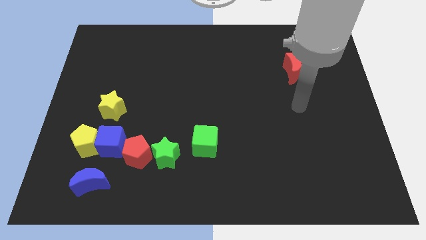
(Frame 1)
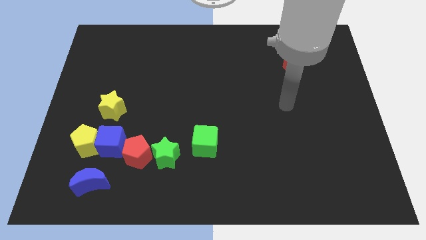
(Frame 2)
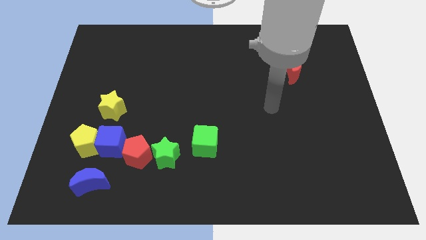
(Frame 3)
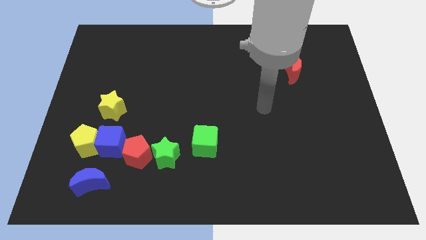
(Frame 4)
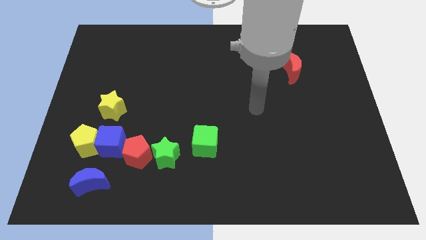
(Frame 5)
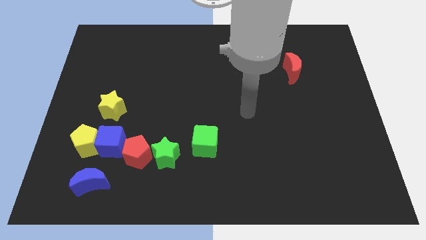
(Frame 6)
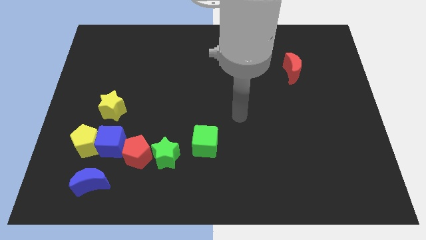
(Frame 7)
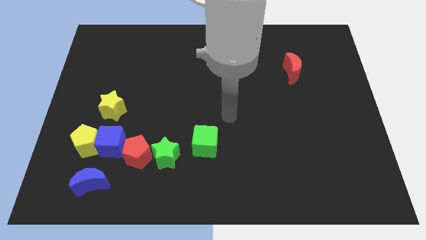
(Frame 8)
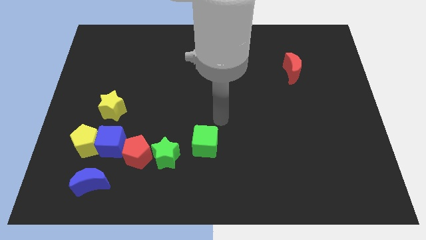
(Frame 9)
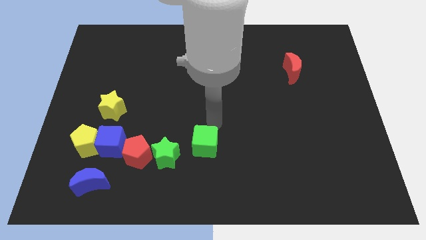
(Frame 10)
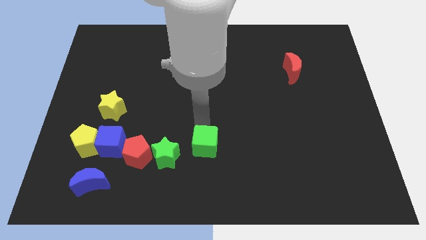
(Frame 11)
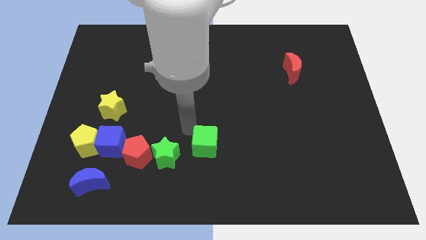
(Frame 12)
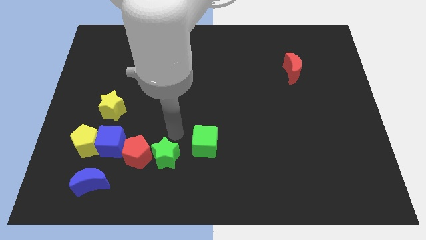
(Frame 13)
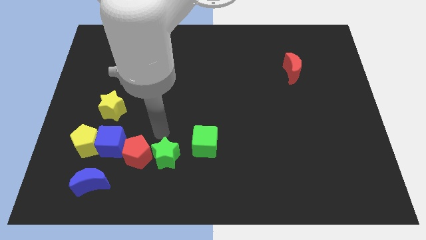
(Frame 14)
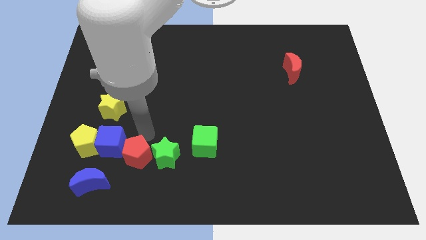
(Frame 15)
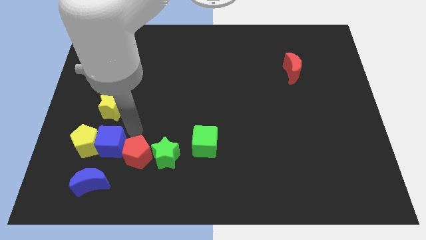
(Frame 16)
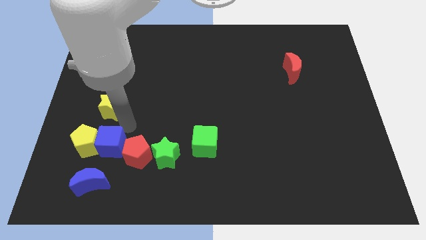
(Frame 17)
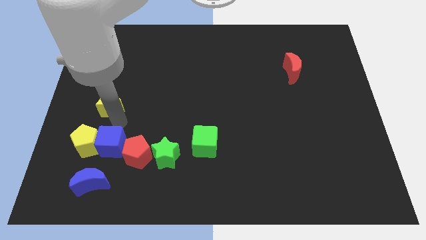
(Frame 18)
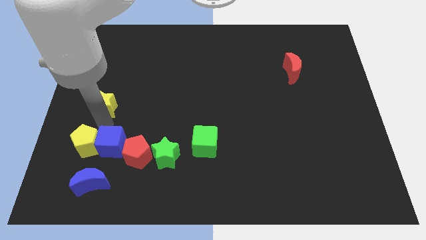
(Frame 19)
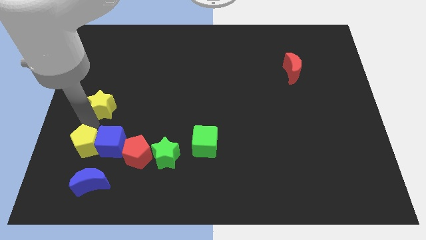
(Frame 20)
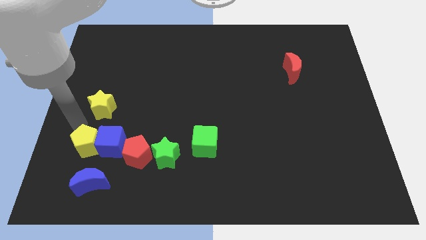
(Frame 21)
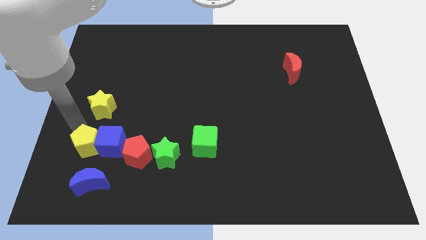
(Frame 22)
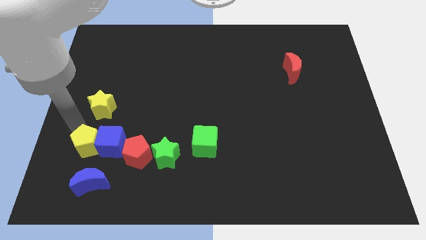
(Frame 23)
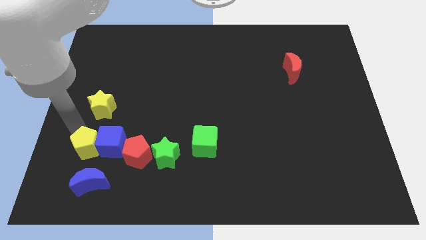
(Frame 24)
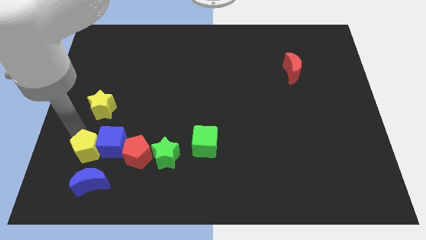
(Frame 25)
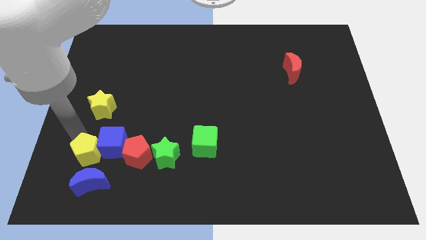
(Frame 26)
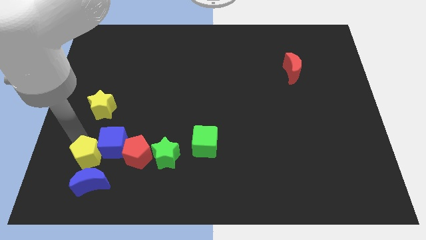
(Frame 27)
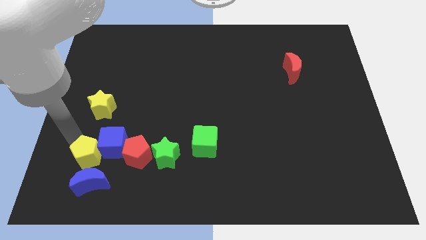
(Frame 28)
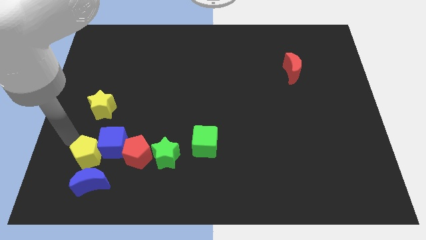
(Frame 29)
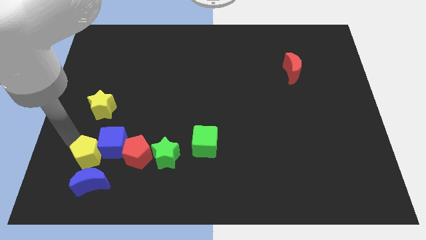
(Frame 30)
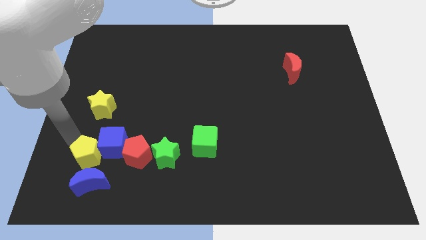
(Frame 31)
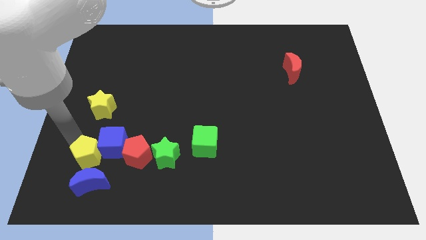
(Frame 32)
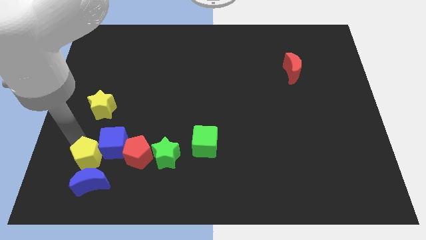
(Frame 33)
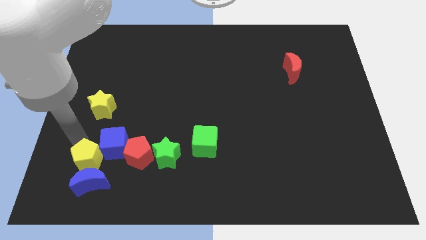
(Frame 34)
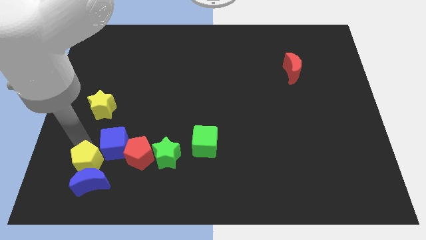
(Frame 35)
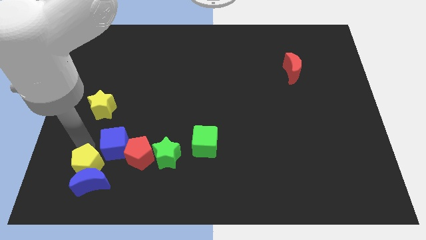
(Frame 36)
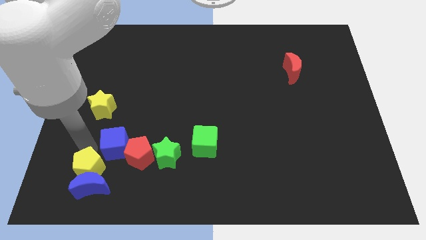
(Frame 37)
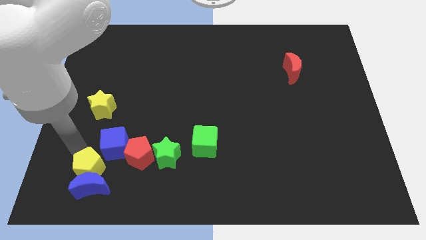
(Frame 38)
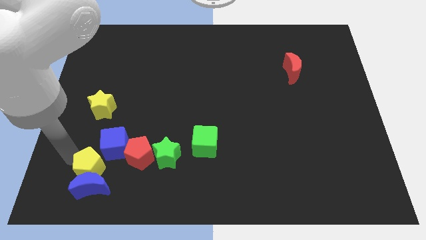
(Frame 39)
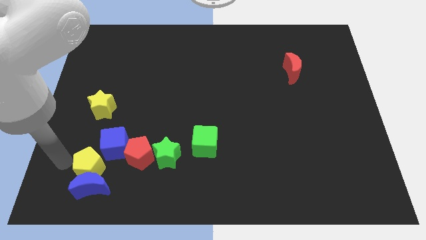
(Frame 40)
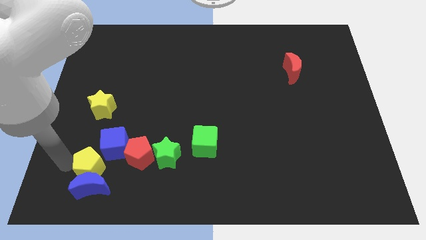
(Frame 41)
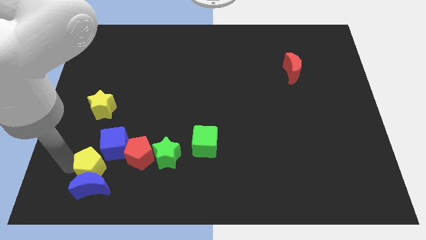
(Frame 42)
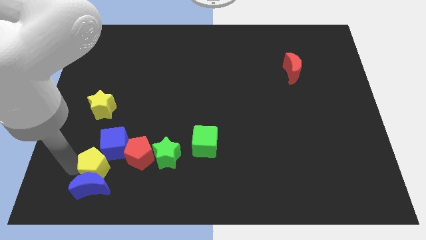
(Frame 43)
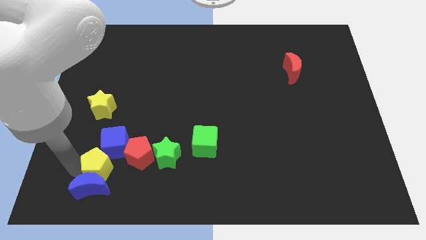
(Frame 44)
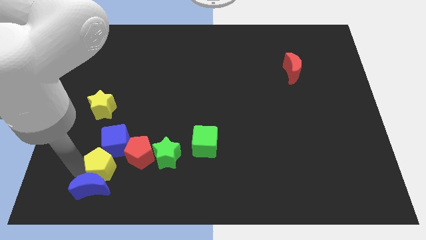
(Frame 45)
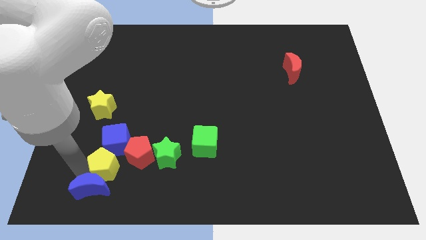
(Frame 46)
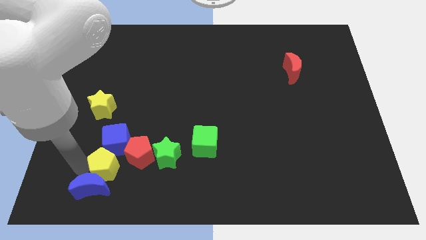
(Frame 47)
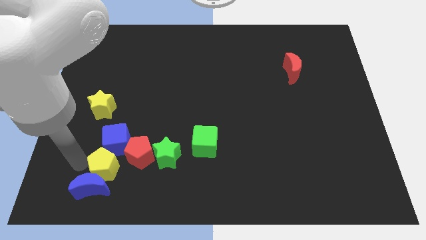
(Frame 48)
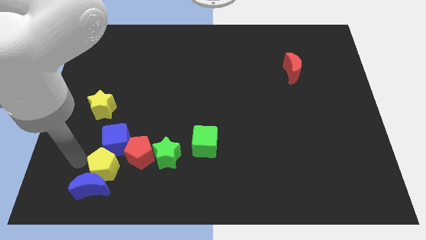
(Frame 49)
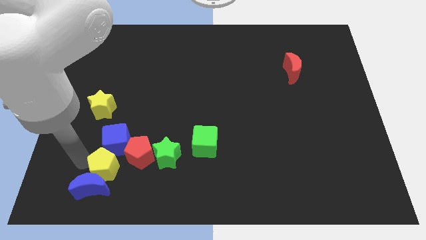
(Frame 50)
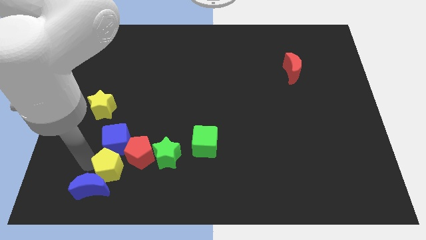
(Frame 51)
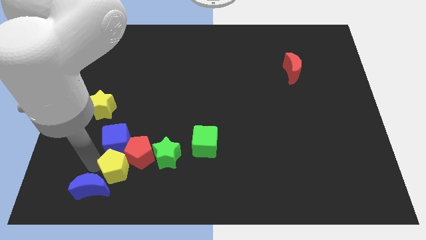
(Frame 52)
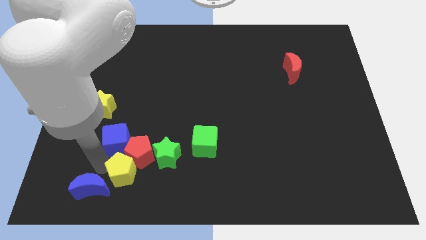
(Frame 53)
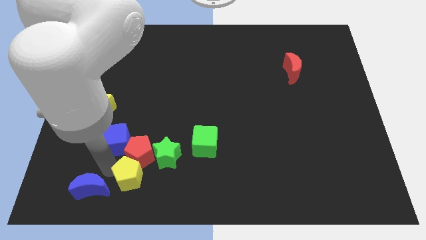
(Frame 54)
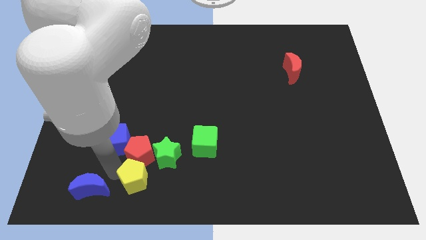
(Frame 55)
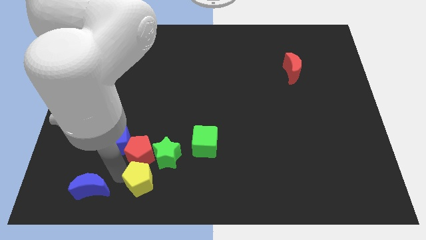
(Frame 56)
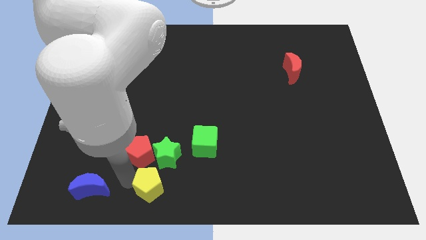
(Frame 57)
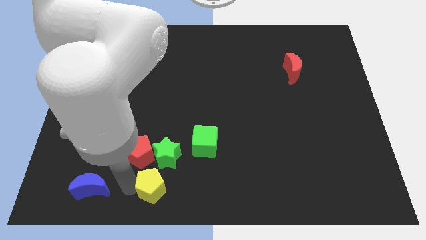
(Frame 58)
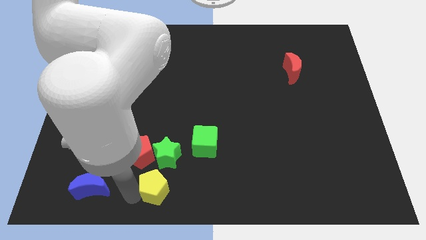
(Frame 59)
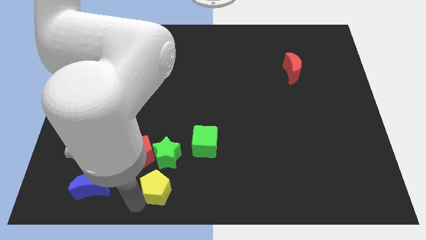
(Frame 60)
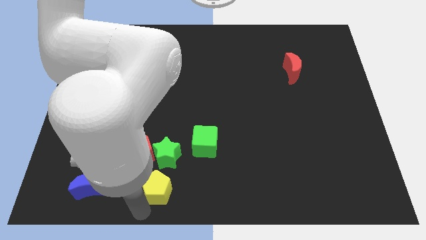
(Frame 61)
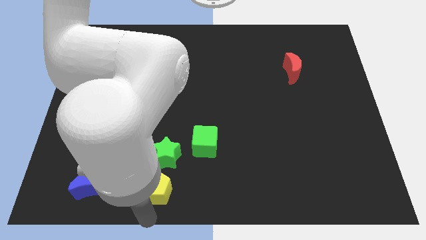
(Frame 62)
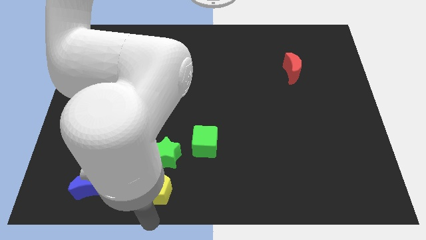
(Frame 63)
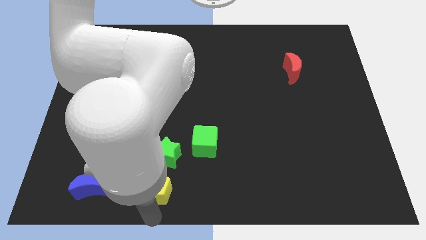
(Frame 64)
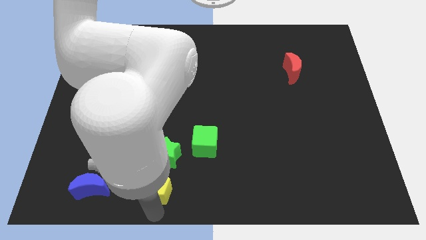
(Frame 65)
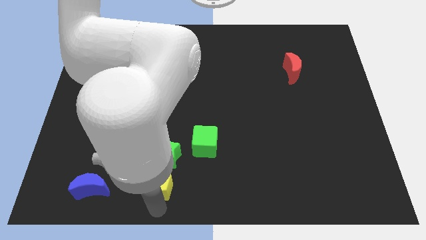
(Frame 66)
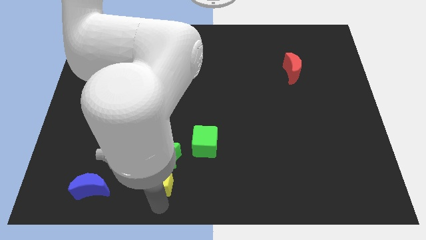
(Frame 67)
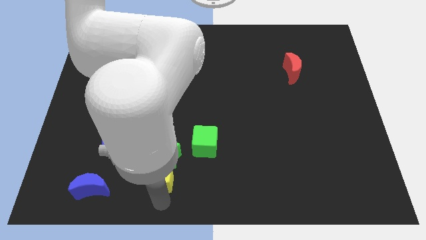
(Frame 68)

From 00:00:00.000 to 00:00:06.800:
put the yellow pentagon to the green star

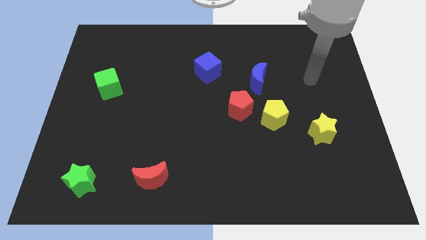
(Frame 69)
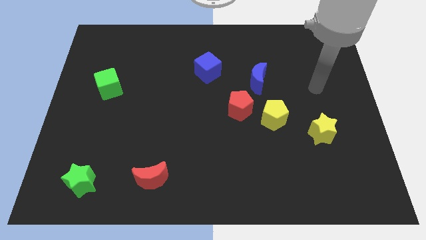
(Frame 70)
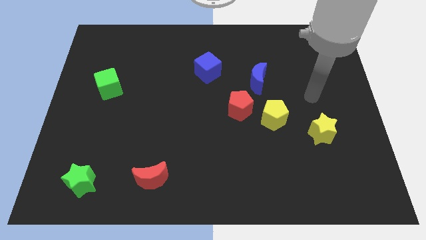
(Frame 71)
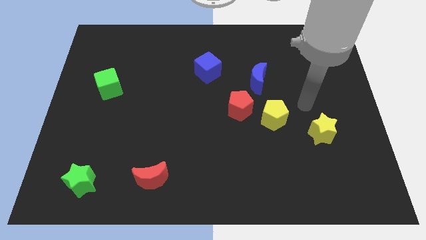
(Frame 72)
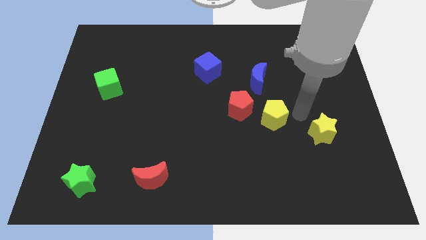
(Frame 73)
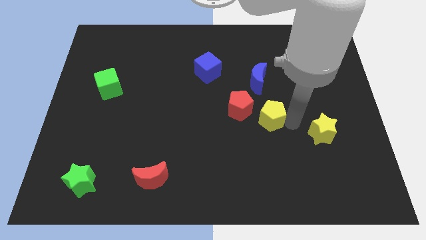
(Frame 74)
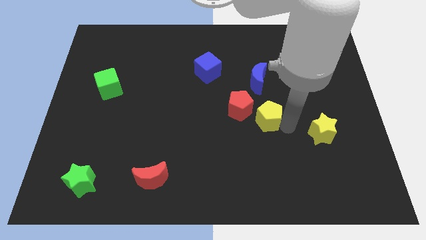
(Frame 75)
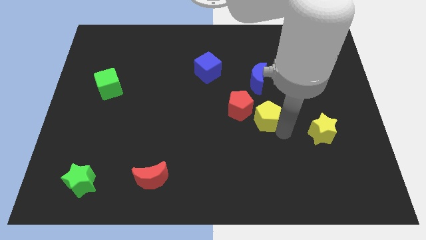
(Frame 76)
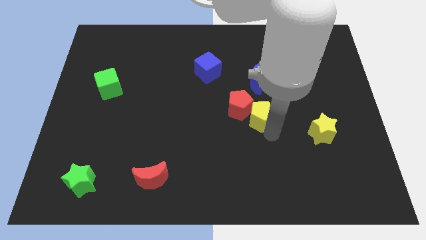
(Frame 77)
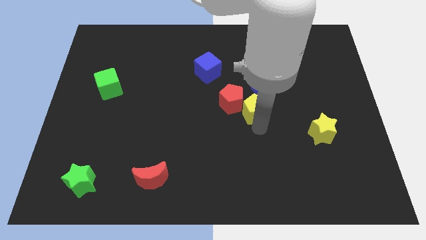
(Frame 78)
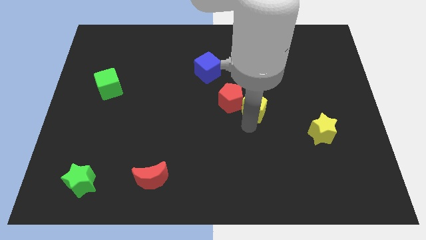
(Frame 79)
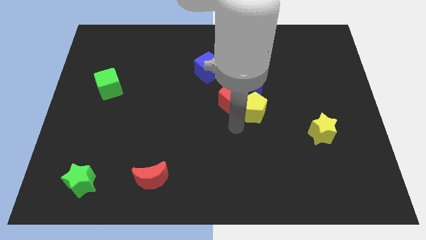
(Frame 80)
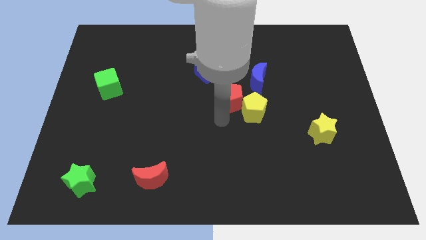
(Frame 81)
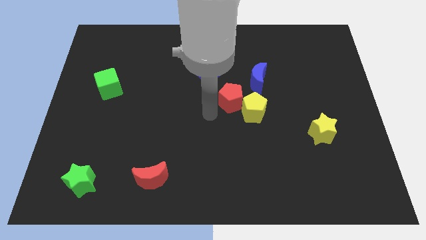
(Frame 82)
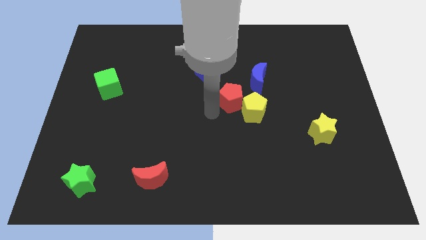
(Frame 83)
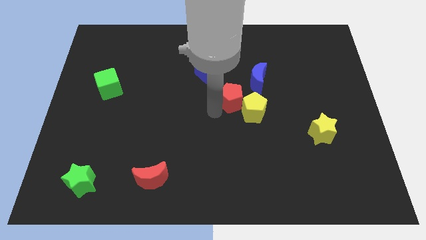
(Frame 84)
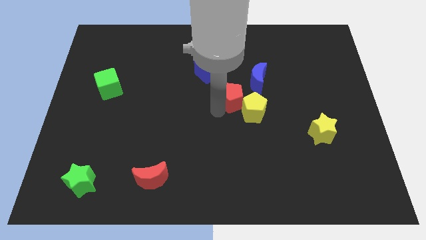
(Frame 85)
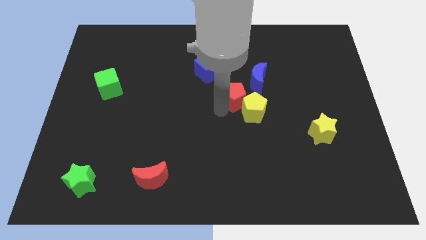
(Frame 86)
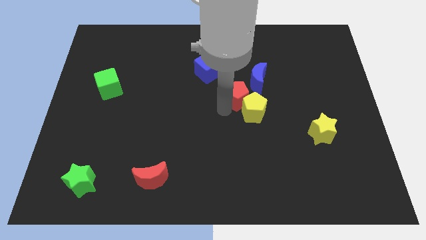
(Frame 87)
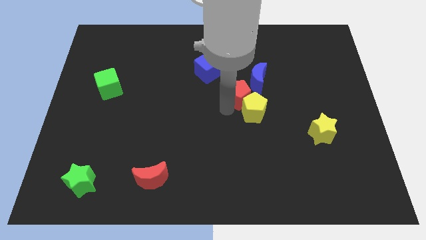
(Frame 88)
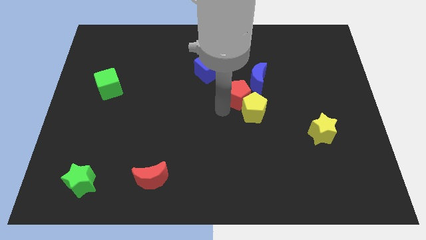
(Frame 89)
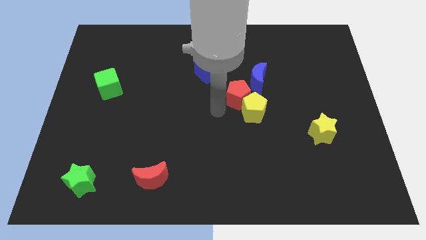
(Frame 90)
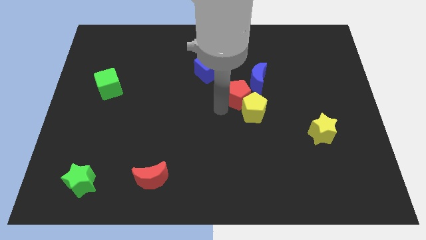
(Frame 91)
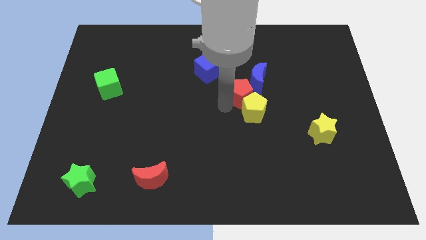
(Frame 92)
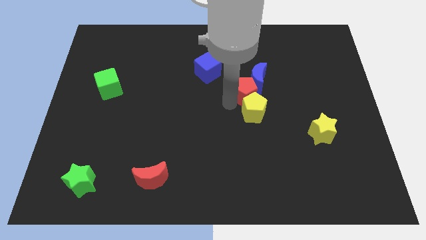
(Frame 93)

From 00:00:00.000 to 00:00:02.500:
slide the red pentagon close to the blue moon
